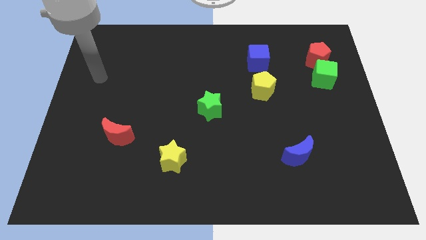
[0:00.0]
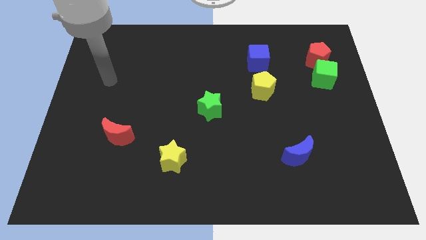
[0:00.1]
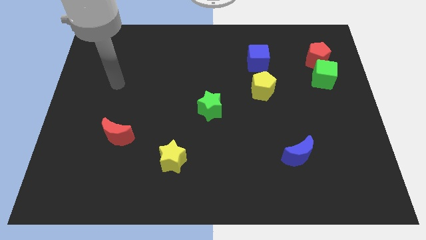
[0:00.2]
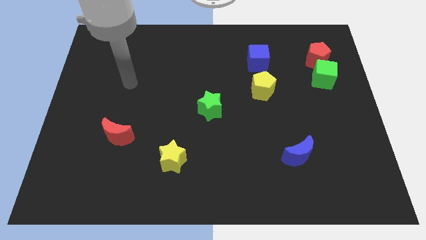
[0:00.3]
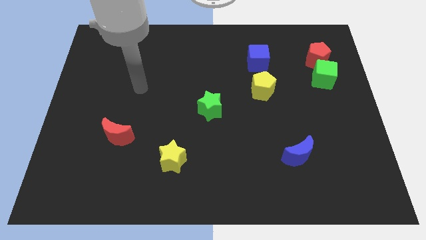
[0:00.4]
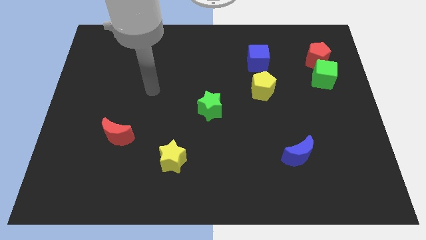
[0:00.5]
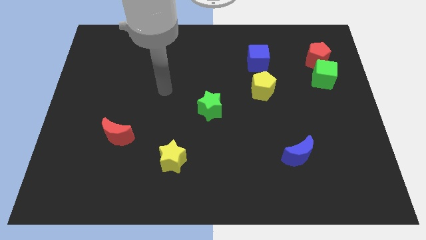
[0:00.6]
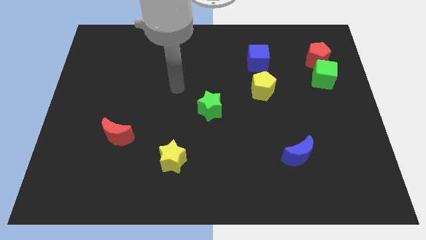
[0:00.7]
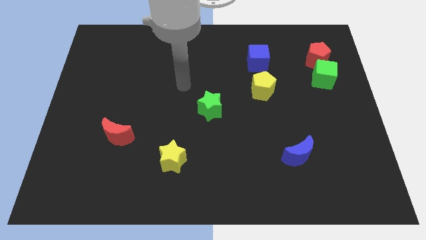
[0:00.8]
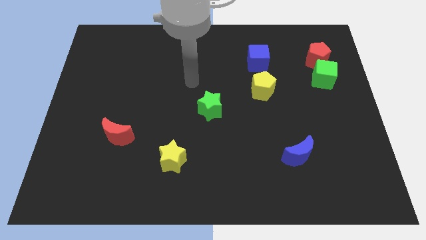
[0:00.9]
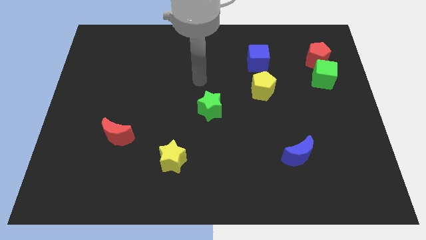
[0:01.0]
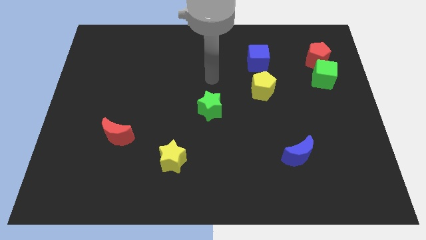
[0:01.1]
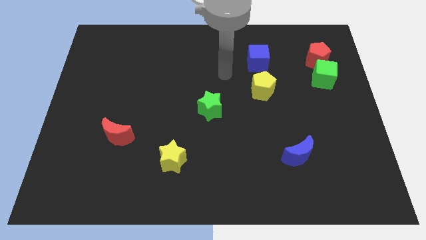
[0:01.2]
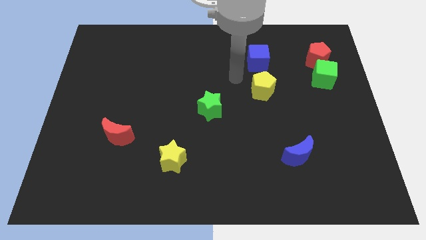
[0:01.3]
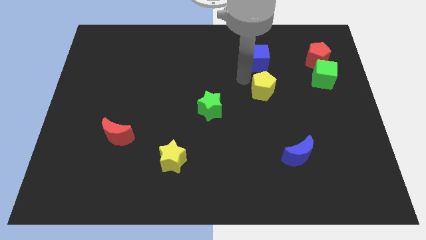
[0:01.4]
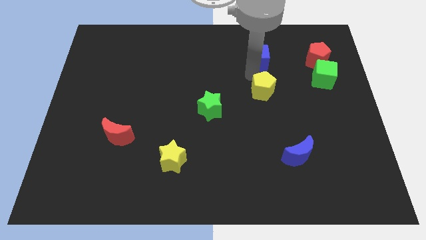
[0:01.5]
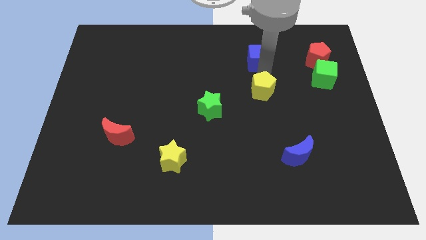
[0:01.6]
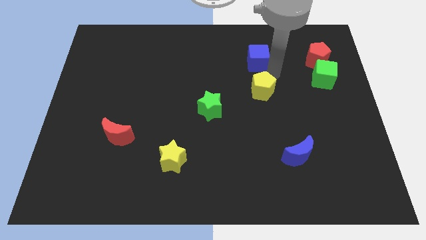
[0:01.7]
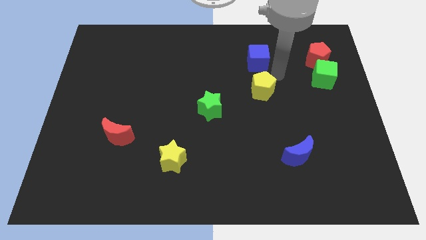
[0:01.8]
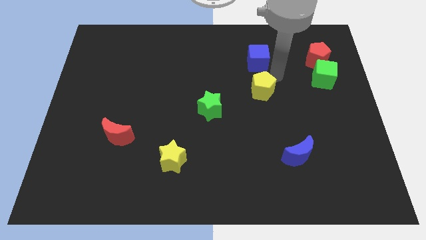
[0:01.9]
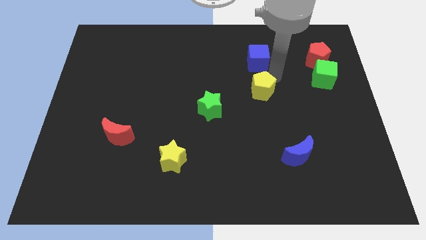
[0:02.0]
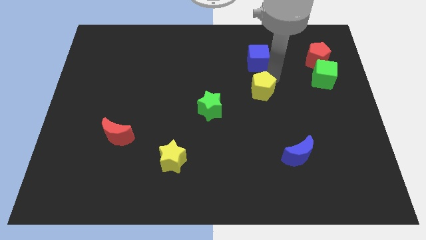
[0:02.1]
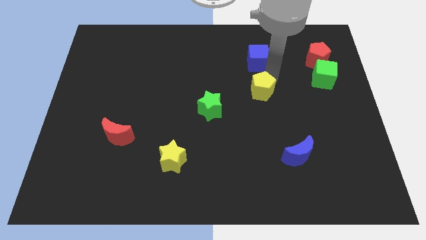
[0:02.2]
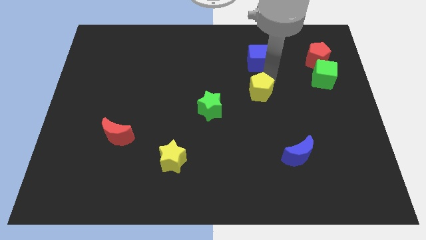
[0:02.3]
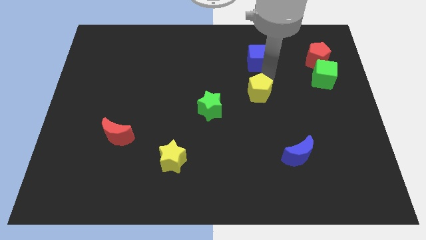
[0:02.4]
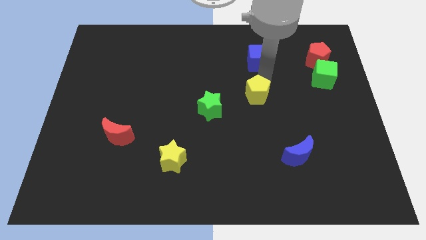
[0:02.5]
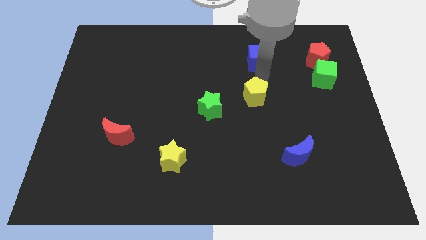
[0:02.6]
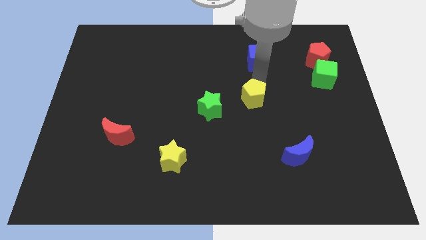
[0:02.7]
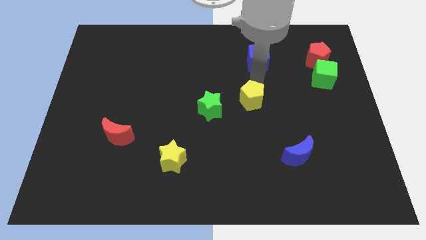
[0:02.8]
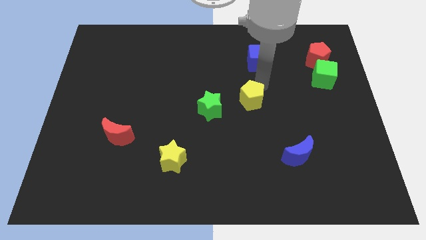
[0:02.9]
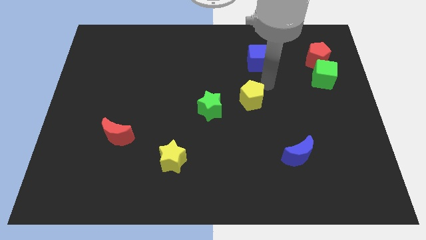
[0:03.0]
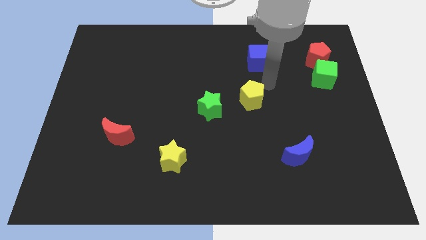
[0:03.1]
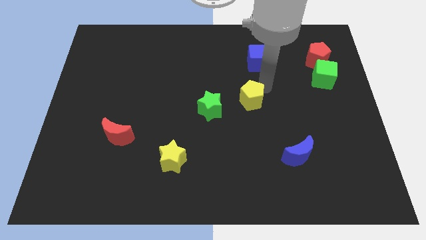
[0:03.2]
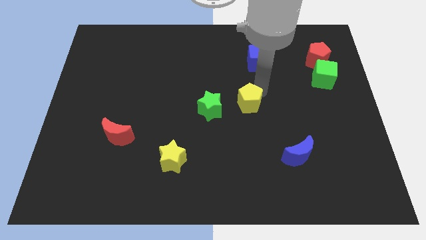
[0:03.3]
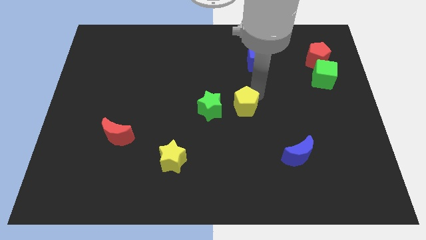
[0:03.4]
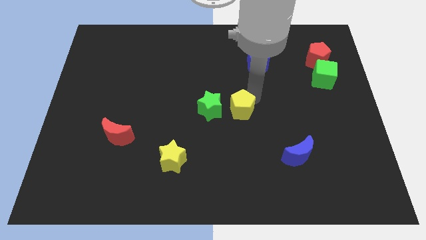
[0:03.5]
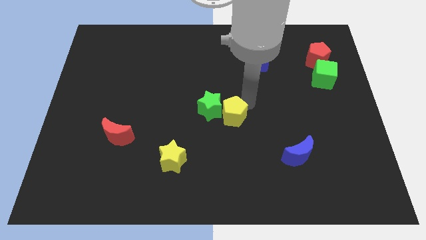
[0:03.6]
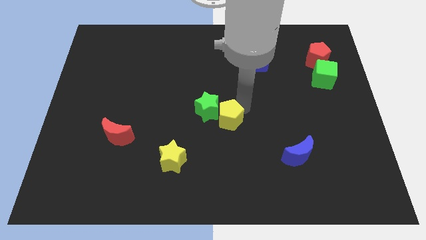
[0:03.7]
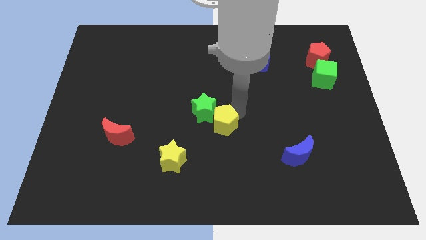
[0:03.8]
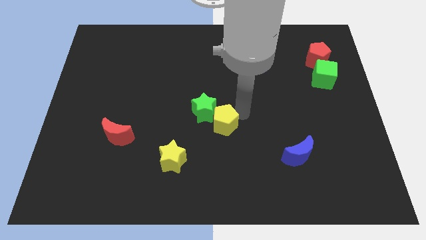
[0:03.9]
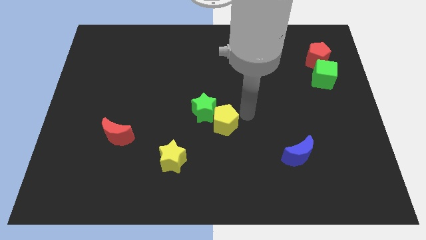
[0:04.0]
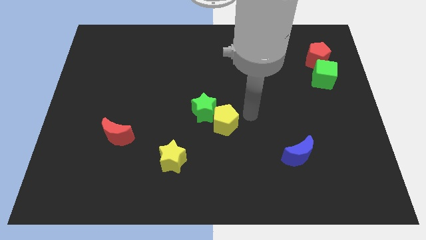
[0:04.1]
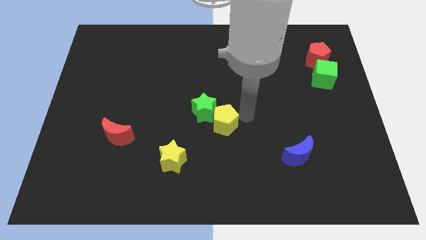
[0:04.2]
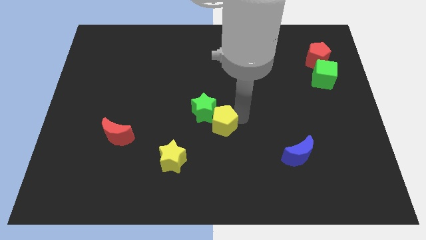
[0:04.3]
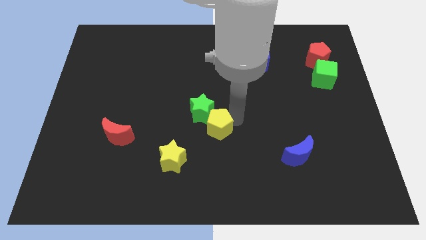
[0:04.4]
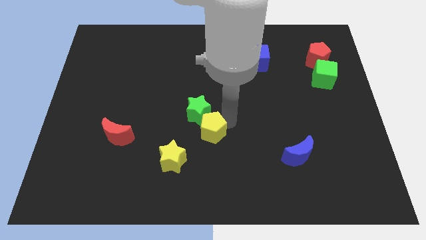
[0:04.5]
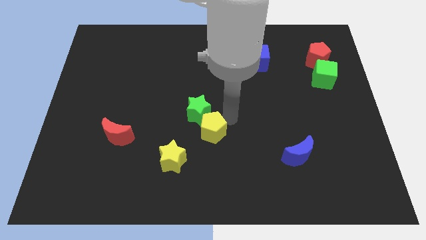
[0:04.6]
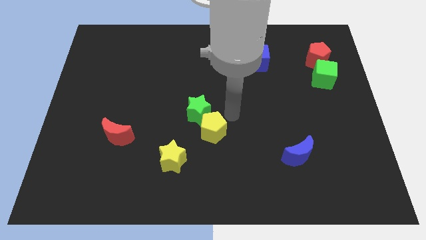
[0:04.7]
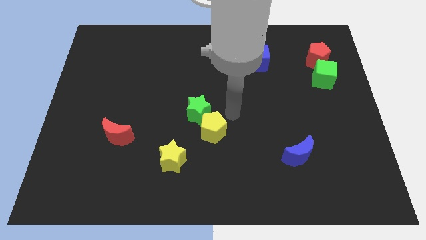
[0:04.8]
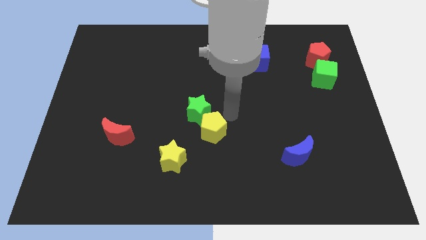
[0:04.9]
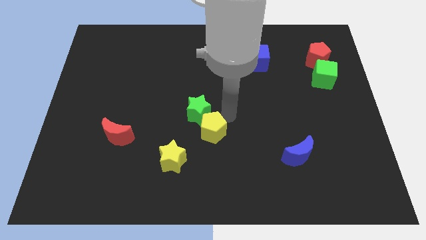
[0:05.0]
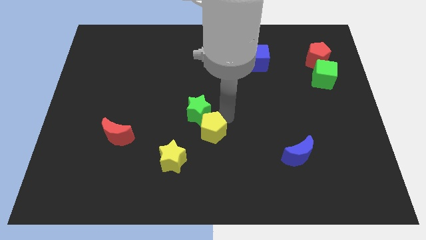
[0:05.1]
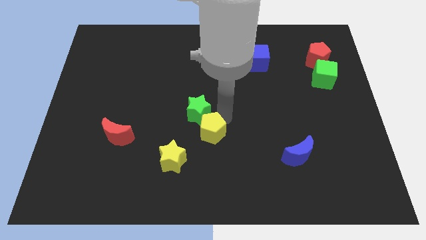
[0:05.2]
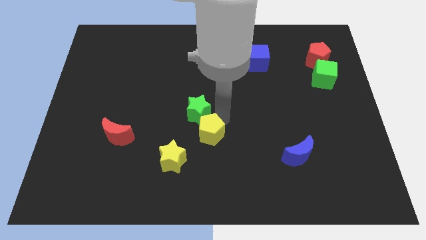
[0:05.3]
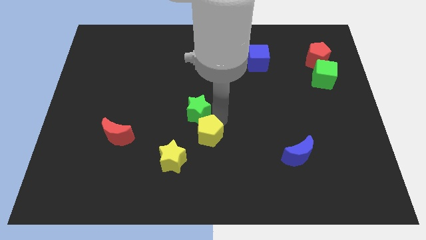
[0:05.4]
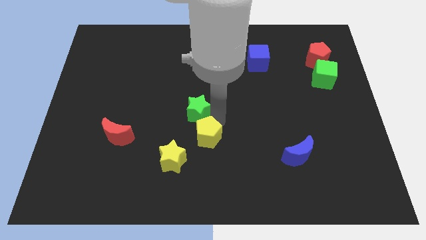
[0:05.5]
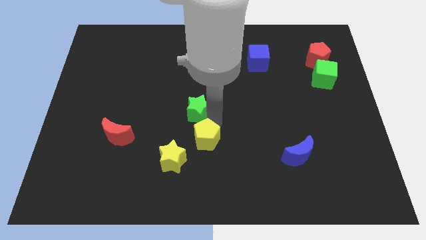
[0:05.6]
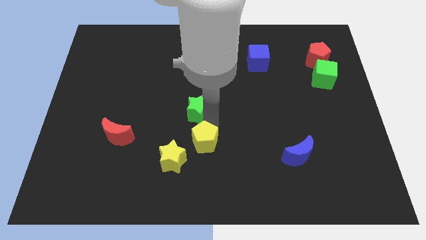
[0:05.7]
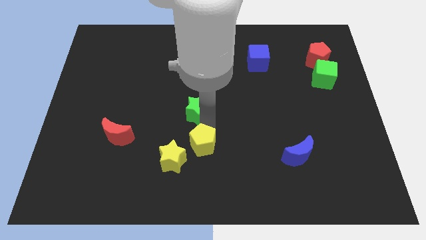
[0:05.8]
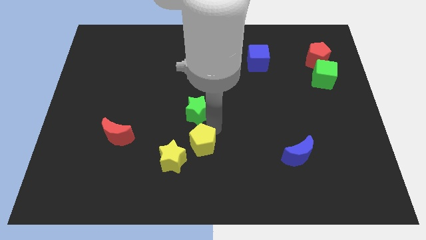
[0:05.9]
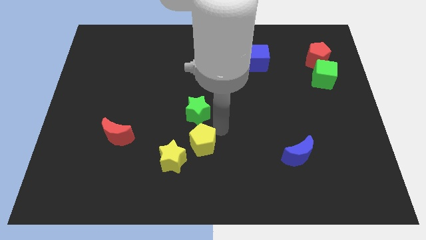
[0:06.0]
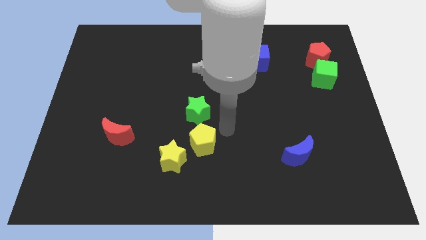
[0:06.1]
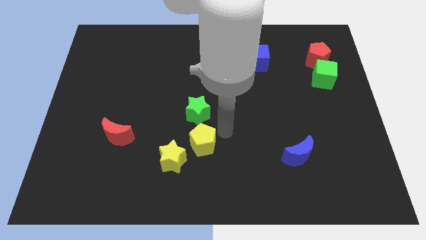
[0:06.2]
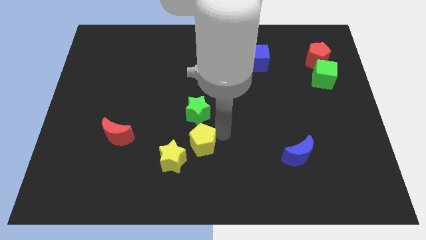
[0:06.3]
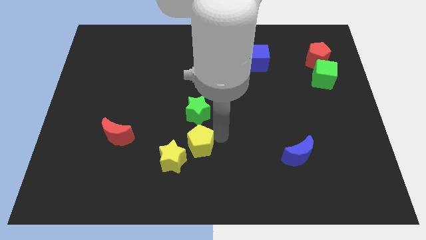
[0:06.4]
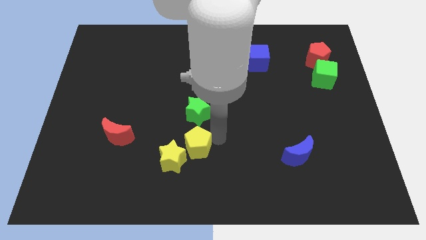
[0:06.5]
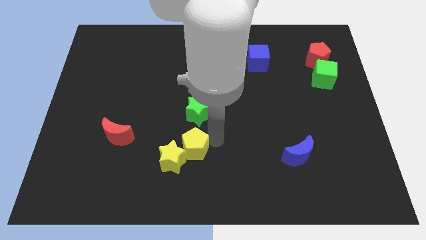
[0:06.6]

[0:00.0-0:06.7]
move the yellow pentagon to the yellow star
